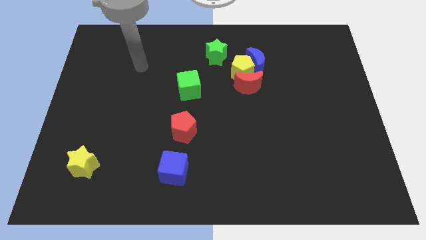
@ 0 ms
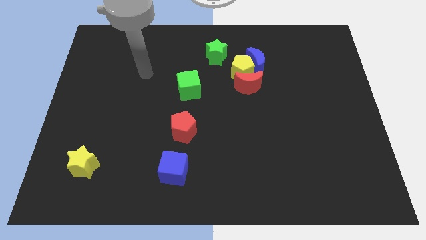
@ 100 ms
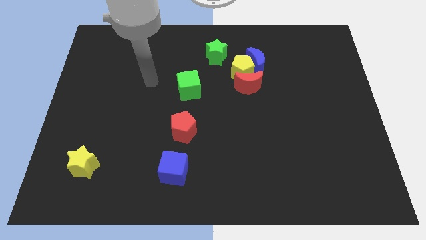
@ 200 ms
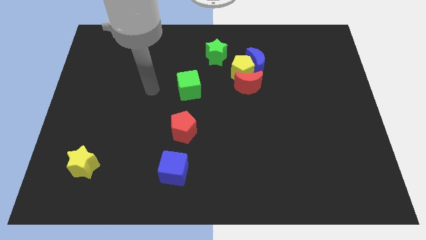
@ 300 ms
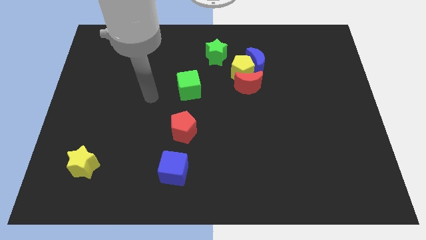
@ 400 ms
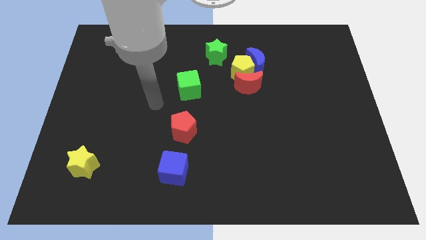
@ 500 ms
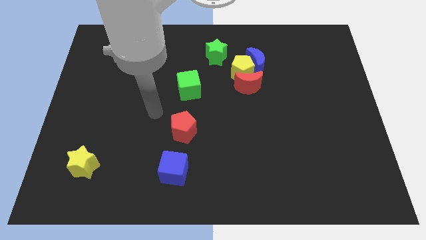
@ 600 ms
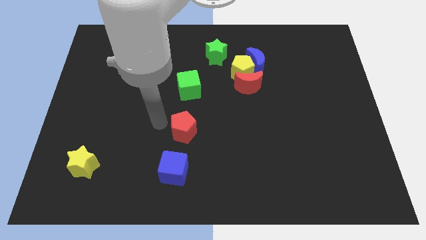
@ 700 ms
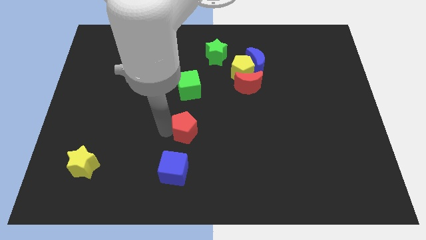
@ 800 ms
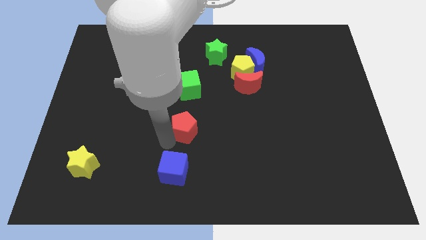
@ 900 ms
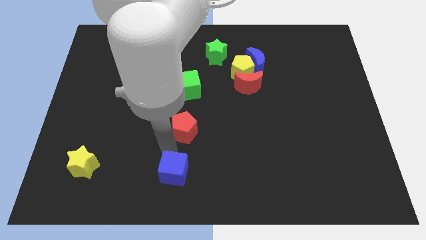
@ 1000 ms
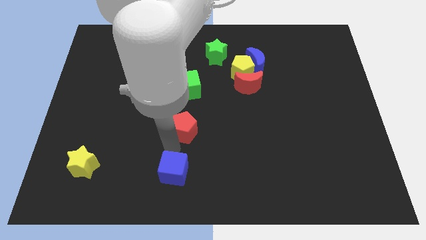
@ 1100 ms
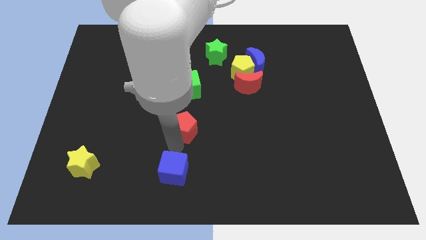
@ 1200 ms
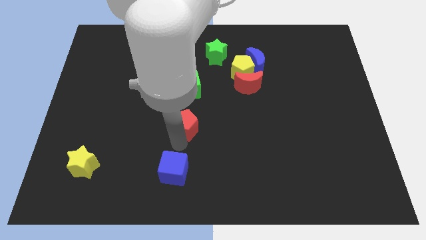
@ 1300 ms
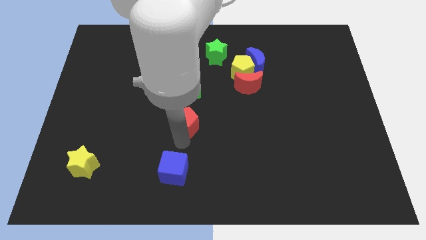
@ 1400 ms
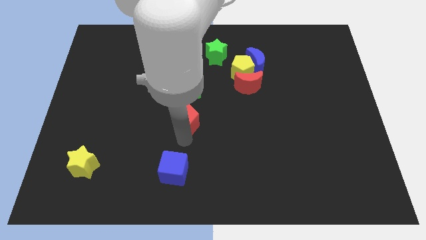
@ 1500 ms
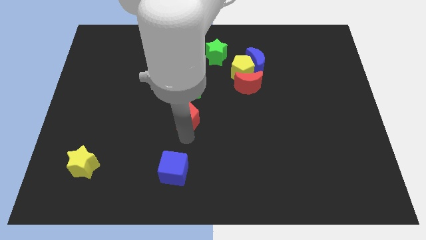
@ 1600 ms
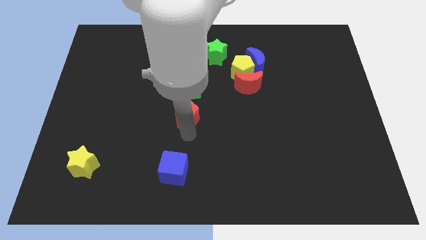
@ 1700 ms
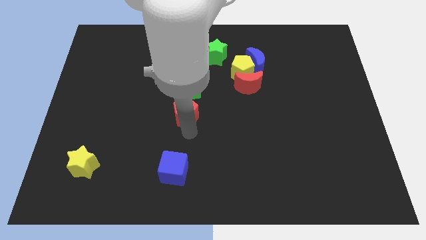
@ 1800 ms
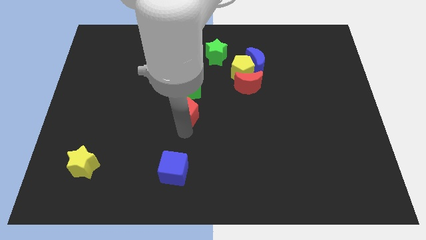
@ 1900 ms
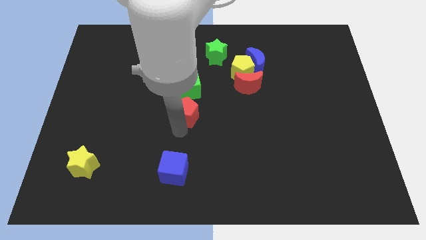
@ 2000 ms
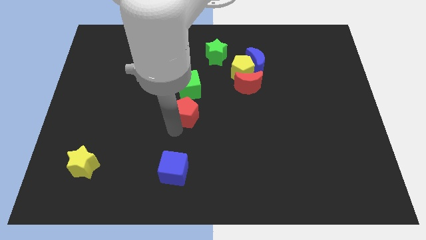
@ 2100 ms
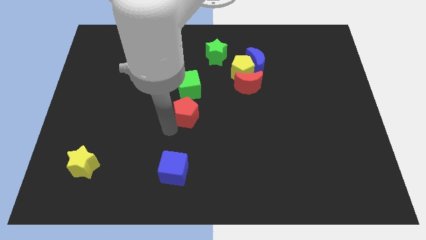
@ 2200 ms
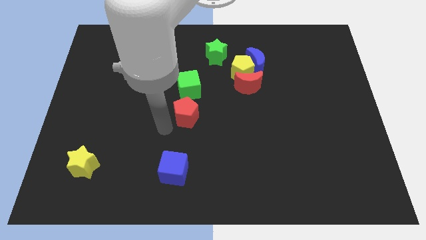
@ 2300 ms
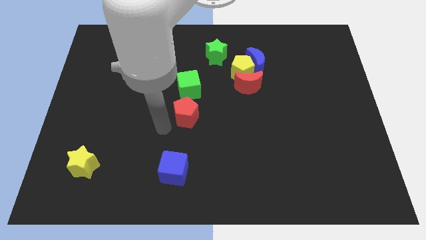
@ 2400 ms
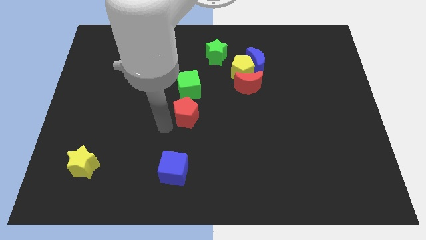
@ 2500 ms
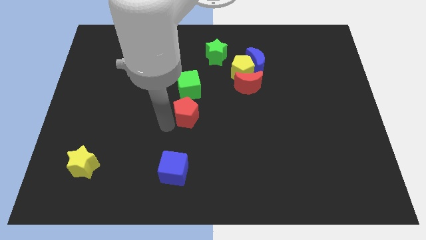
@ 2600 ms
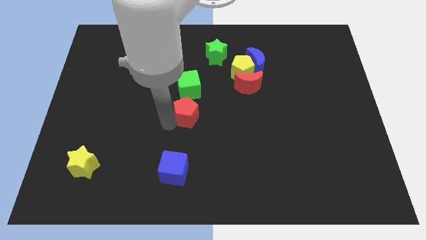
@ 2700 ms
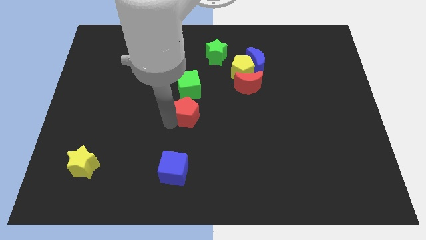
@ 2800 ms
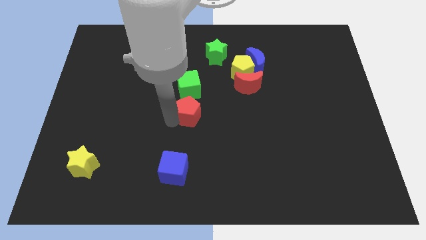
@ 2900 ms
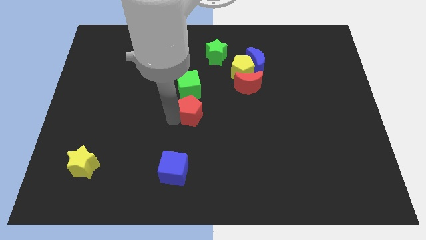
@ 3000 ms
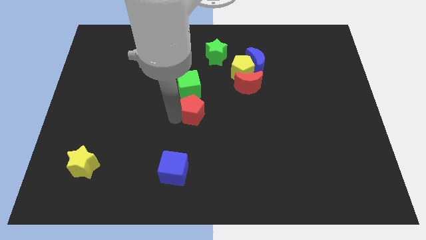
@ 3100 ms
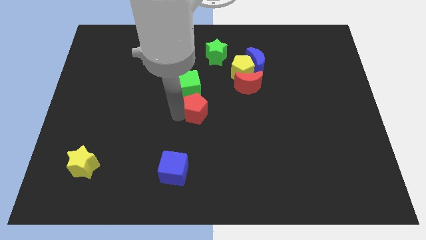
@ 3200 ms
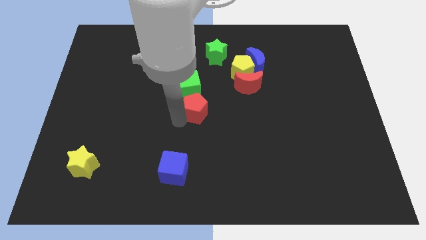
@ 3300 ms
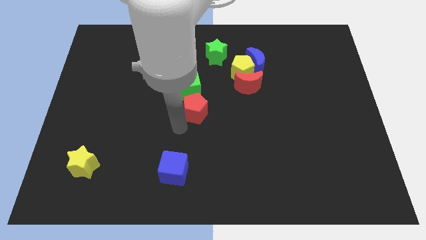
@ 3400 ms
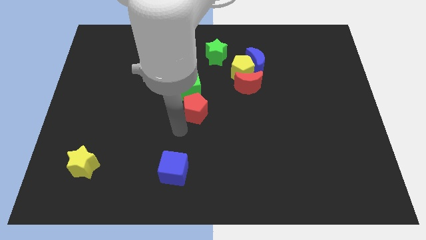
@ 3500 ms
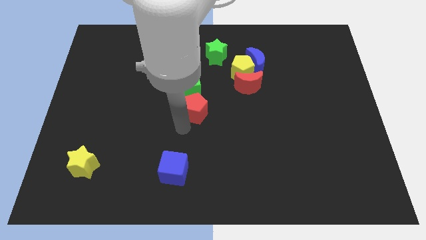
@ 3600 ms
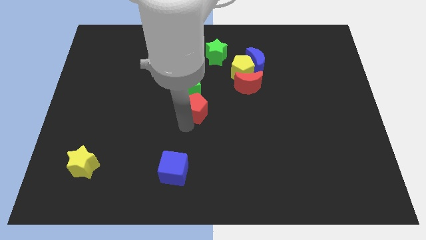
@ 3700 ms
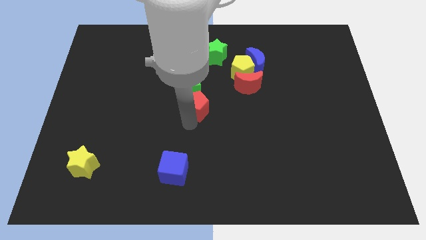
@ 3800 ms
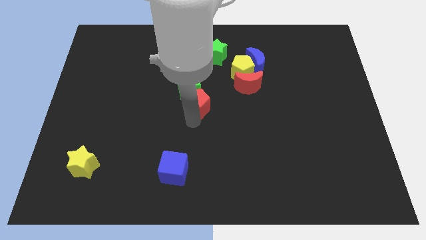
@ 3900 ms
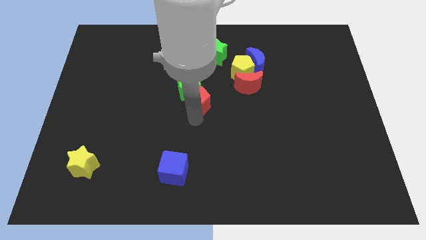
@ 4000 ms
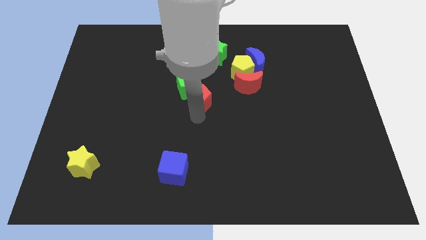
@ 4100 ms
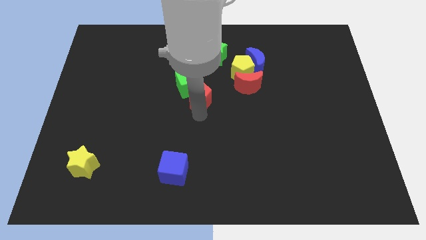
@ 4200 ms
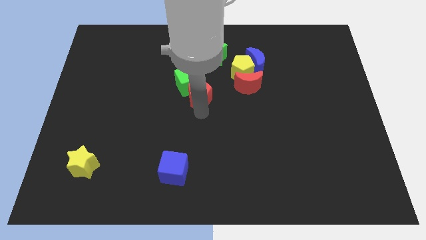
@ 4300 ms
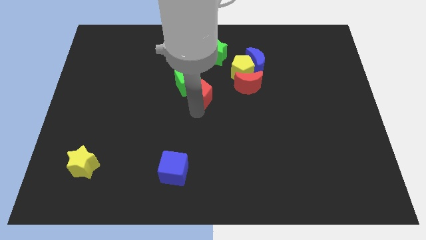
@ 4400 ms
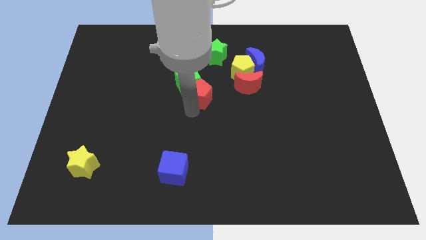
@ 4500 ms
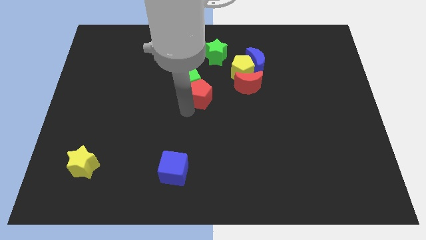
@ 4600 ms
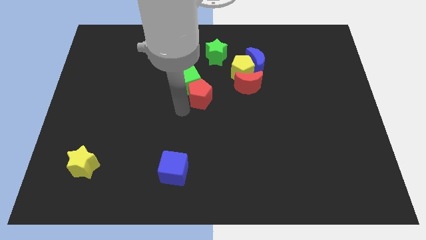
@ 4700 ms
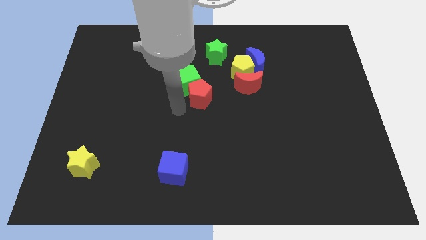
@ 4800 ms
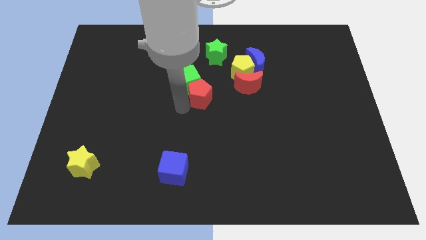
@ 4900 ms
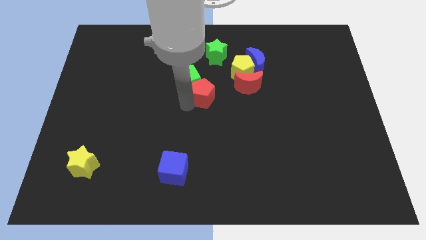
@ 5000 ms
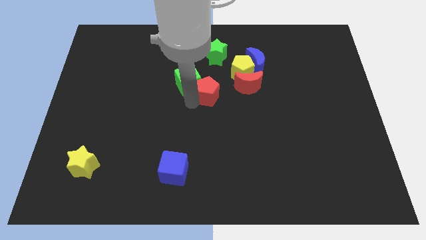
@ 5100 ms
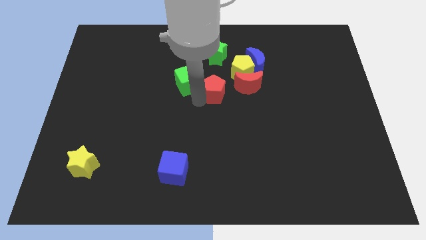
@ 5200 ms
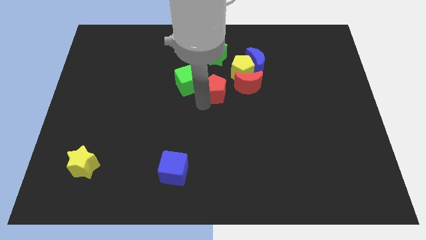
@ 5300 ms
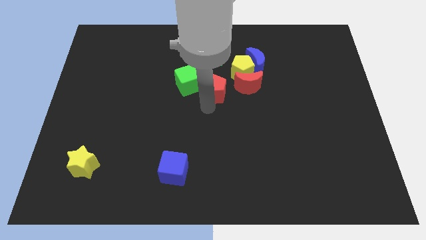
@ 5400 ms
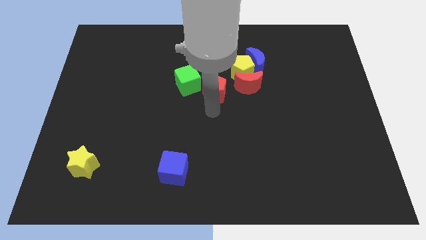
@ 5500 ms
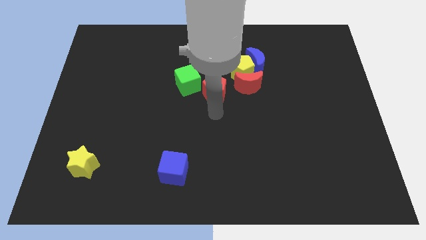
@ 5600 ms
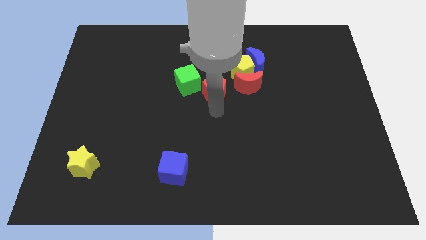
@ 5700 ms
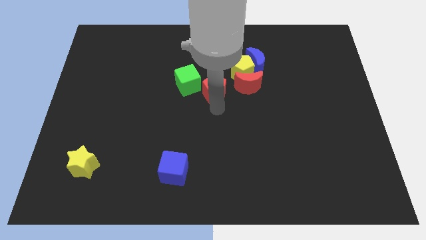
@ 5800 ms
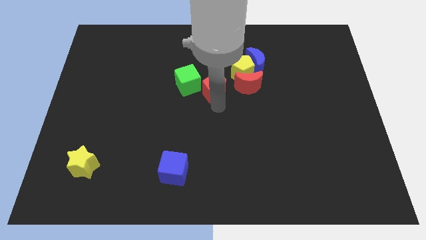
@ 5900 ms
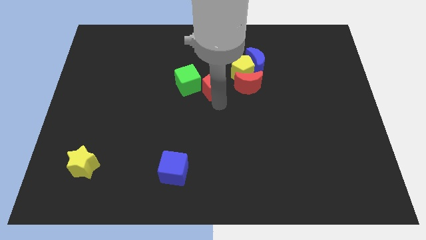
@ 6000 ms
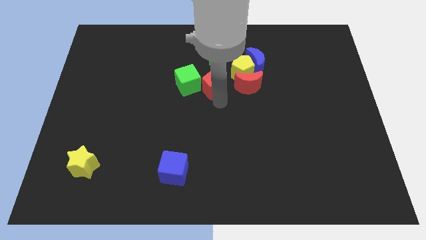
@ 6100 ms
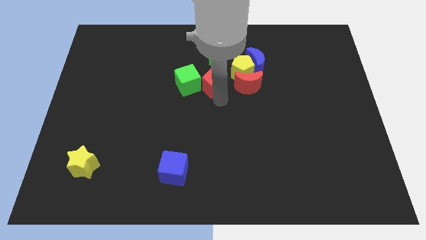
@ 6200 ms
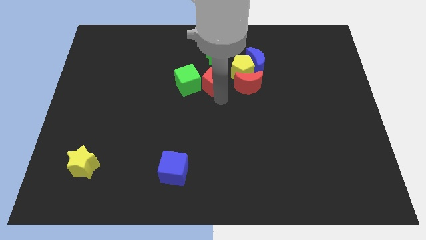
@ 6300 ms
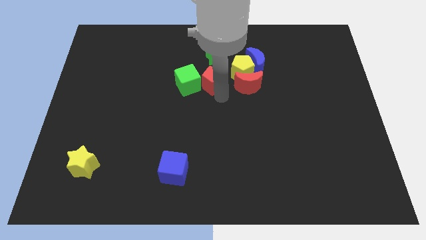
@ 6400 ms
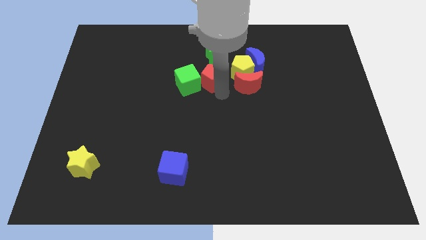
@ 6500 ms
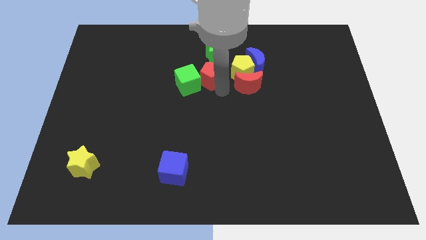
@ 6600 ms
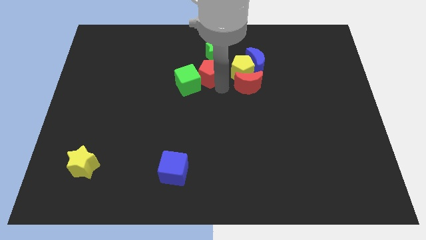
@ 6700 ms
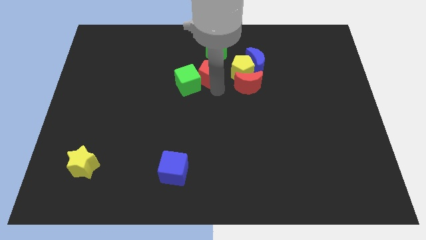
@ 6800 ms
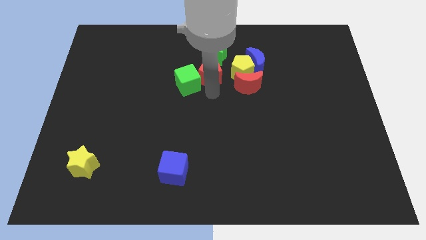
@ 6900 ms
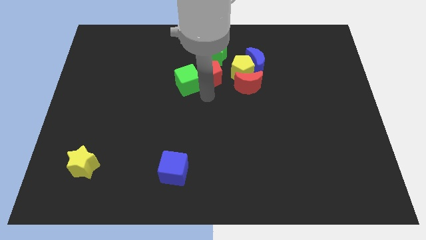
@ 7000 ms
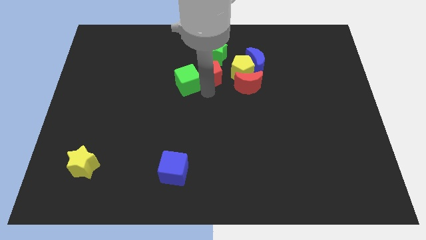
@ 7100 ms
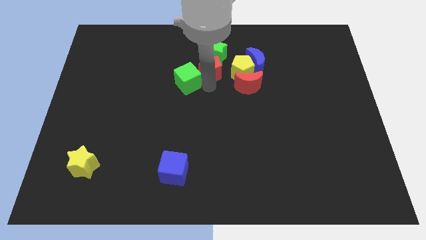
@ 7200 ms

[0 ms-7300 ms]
put the red pentagon close to the green star

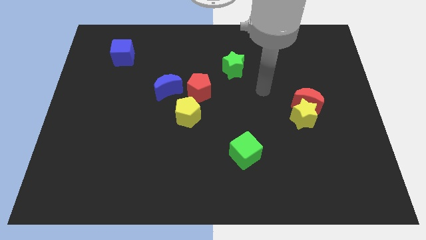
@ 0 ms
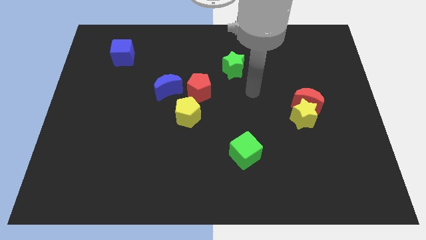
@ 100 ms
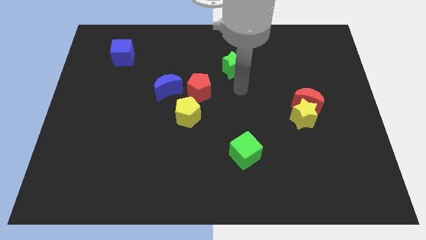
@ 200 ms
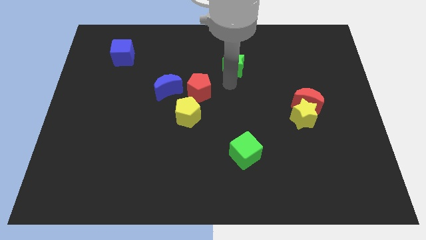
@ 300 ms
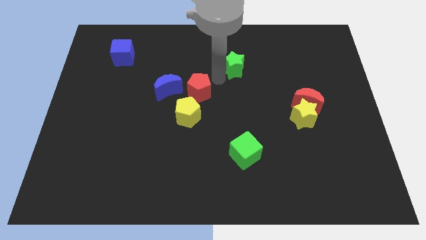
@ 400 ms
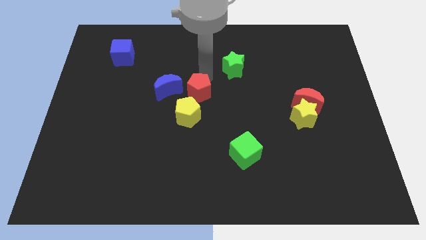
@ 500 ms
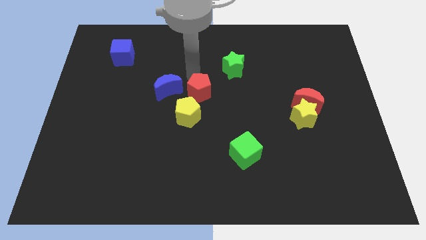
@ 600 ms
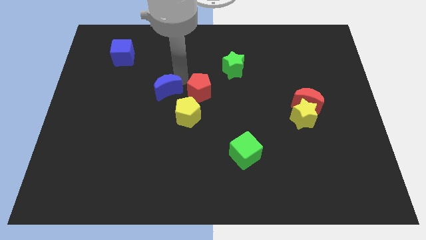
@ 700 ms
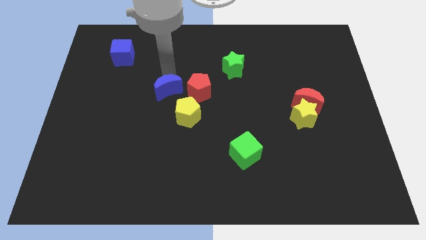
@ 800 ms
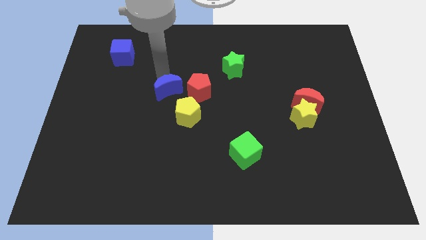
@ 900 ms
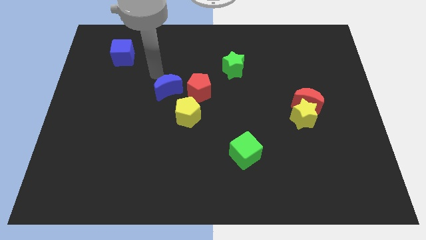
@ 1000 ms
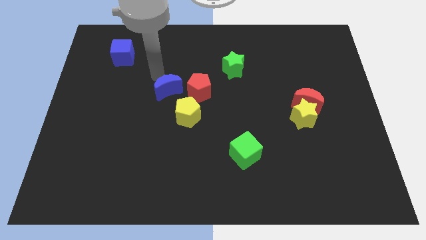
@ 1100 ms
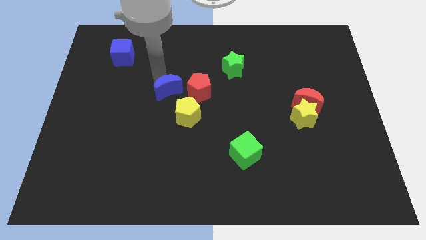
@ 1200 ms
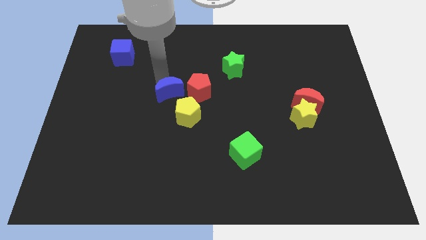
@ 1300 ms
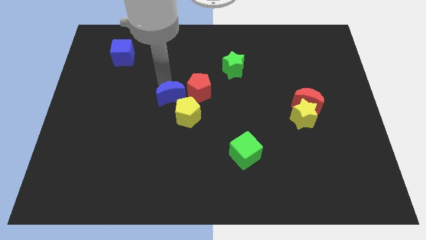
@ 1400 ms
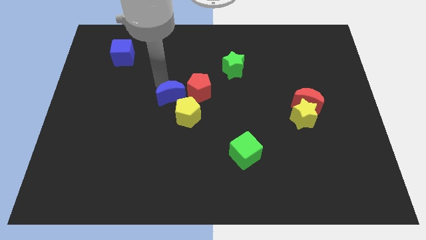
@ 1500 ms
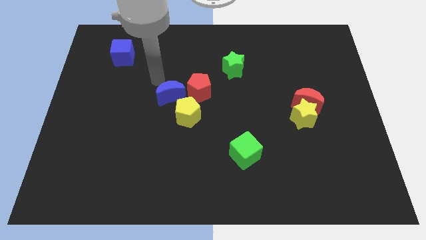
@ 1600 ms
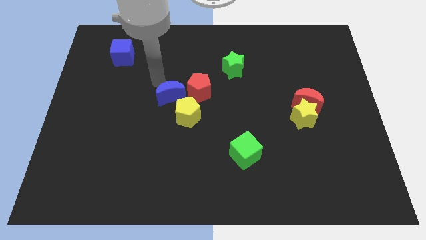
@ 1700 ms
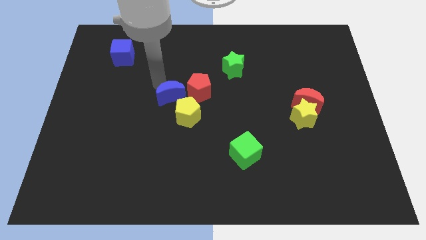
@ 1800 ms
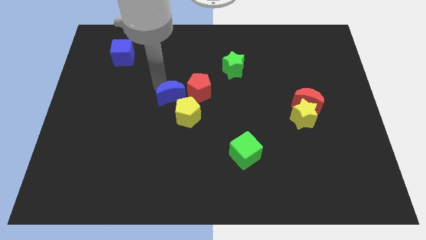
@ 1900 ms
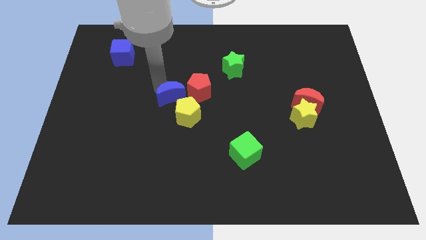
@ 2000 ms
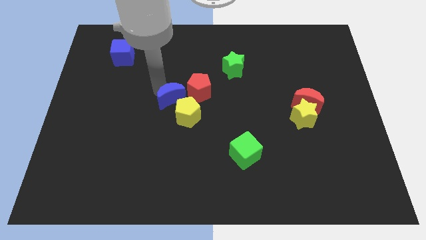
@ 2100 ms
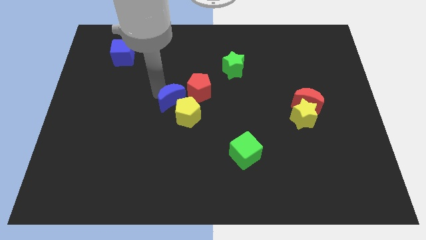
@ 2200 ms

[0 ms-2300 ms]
slide the blue moon towards the yellow pentagon
